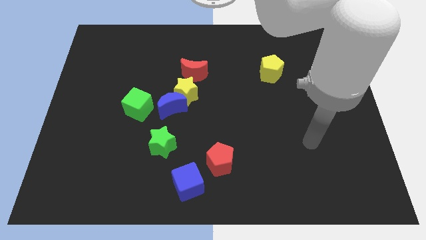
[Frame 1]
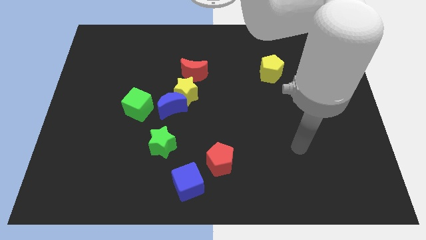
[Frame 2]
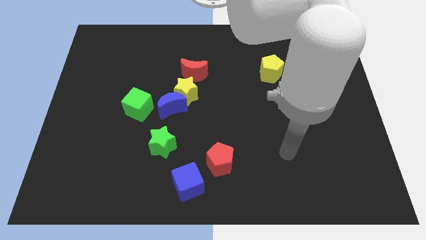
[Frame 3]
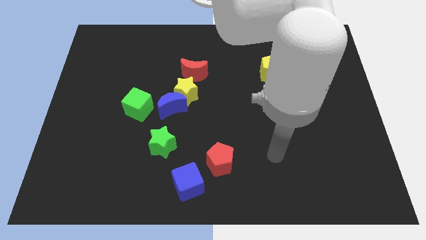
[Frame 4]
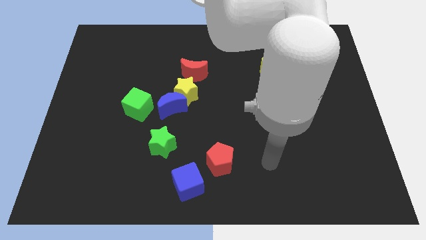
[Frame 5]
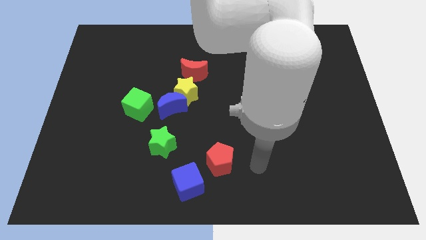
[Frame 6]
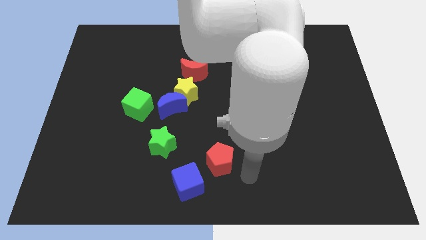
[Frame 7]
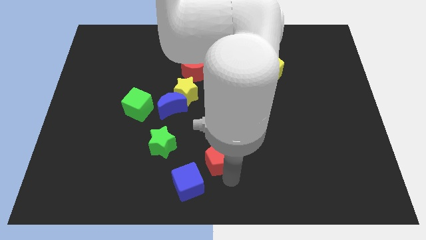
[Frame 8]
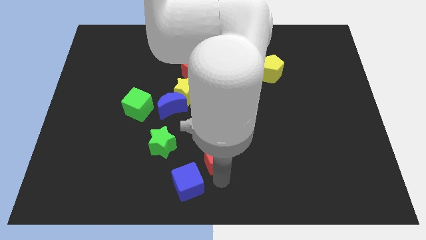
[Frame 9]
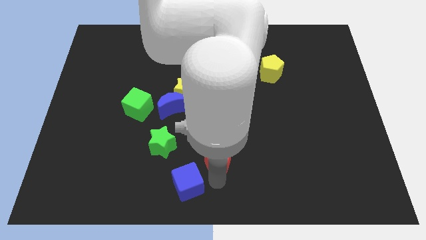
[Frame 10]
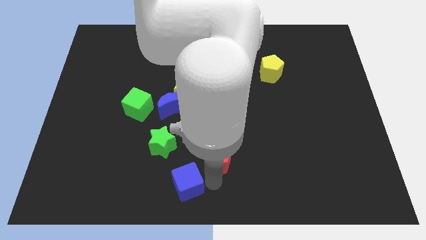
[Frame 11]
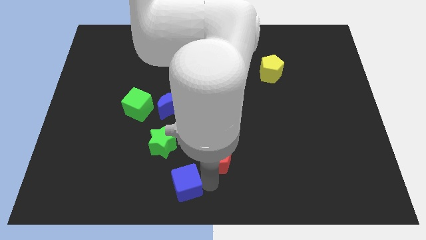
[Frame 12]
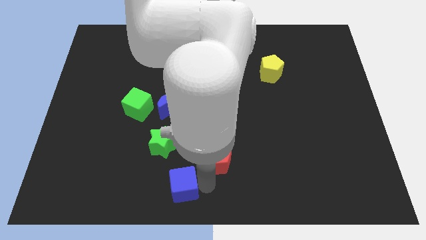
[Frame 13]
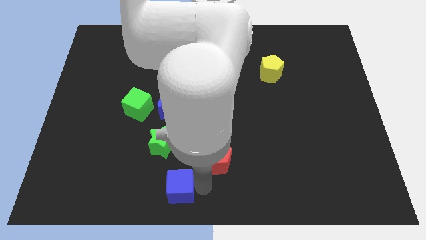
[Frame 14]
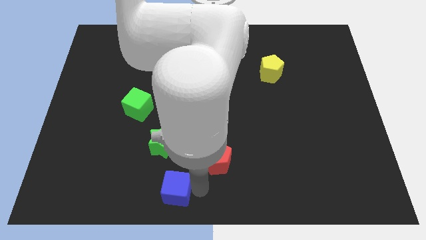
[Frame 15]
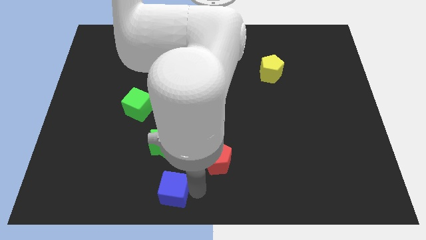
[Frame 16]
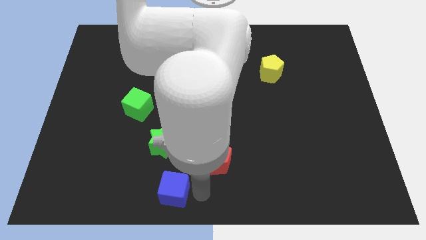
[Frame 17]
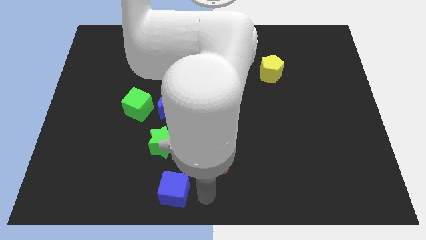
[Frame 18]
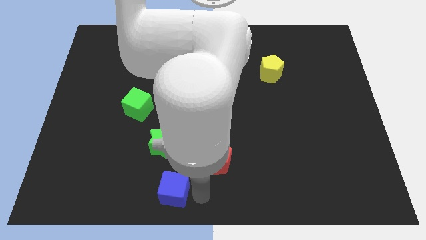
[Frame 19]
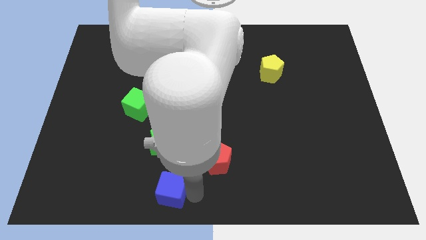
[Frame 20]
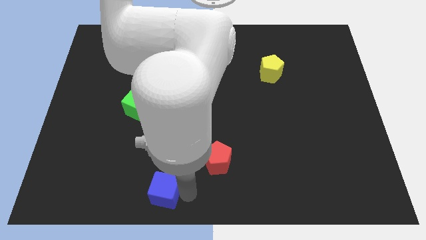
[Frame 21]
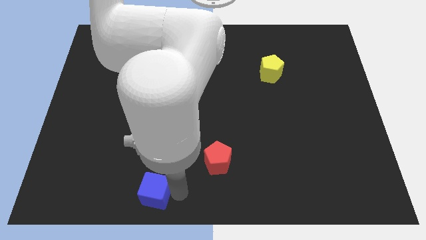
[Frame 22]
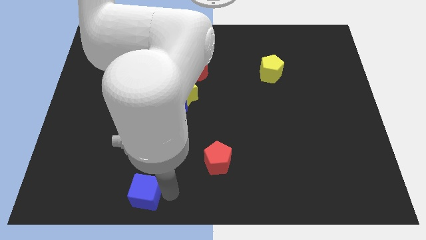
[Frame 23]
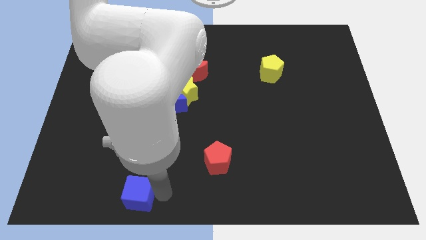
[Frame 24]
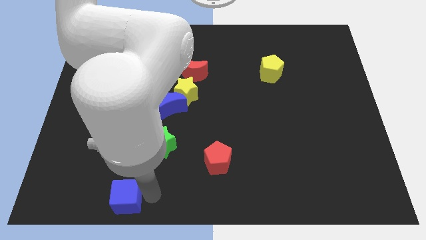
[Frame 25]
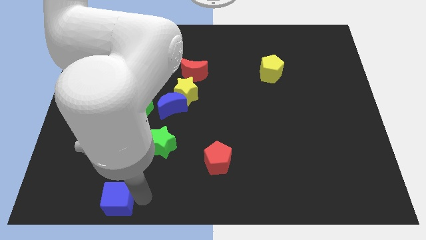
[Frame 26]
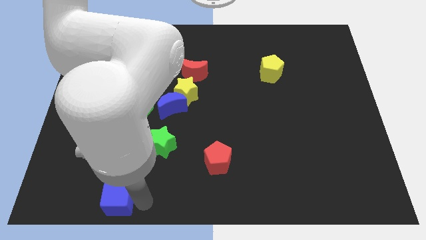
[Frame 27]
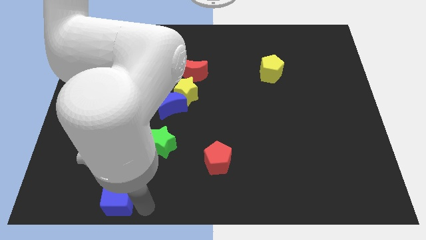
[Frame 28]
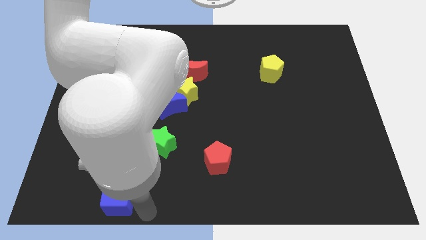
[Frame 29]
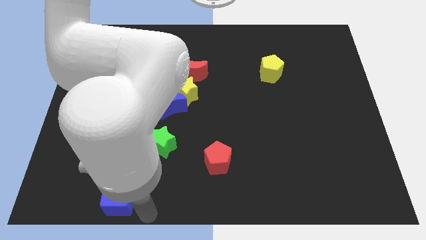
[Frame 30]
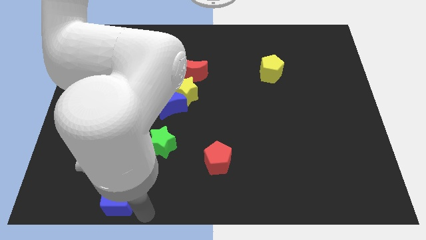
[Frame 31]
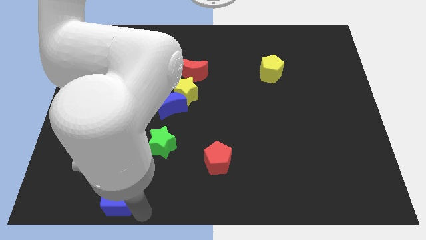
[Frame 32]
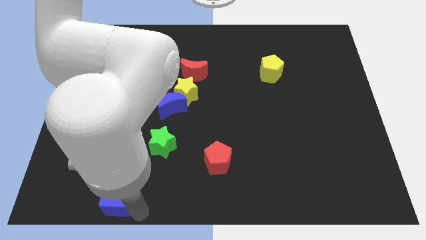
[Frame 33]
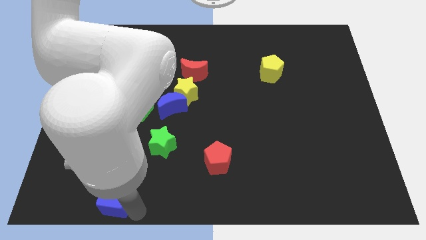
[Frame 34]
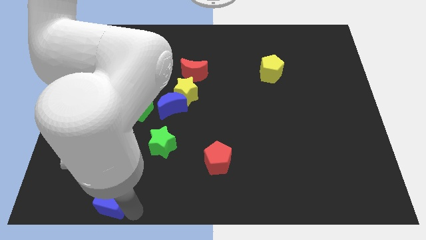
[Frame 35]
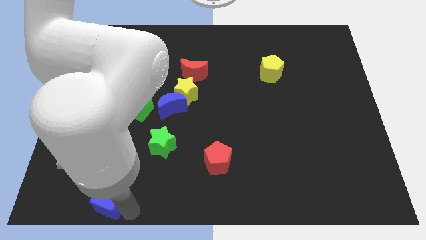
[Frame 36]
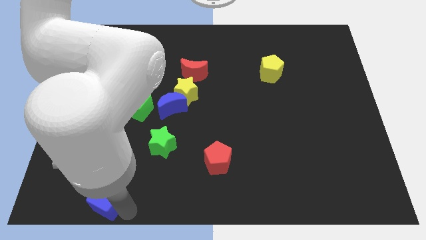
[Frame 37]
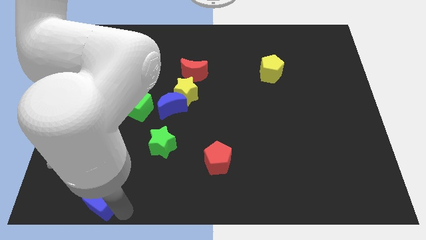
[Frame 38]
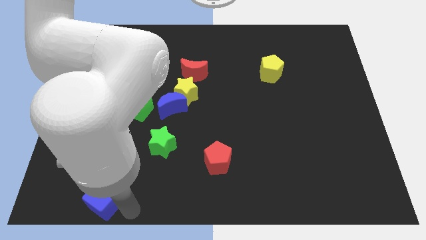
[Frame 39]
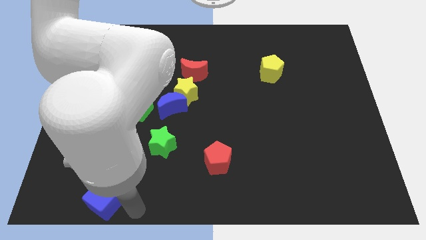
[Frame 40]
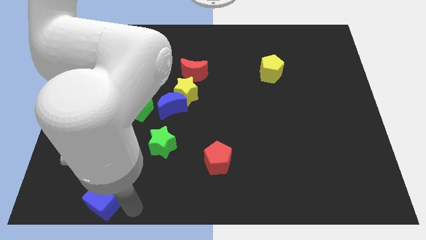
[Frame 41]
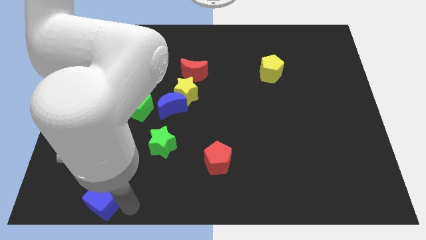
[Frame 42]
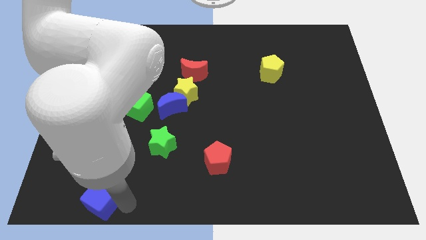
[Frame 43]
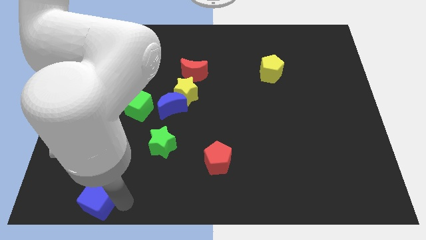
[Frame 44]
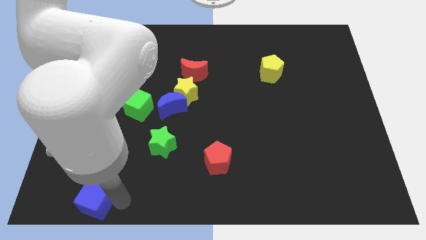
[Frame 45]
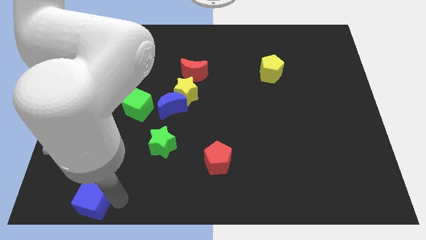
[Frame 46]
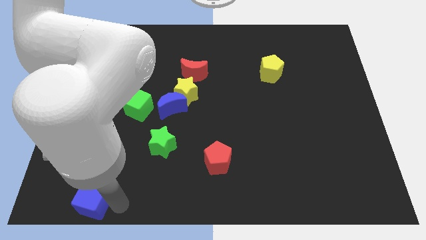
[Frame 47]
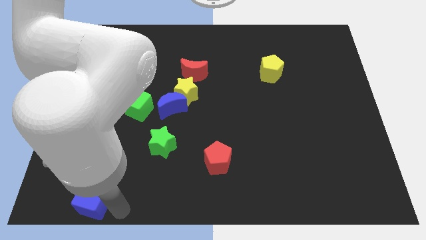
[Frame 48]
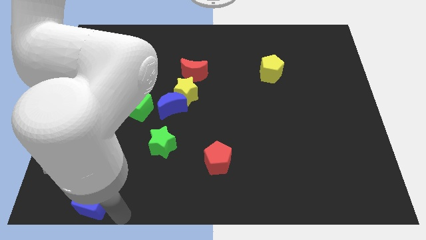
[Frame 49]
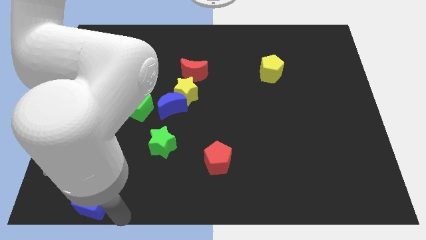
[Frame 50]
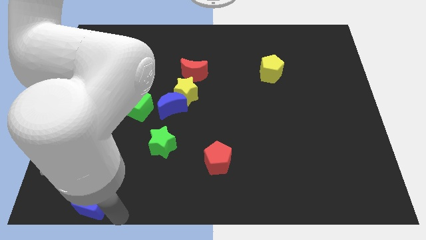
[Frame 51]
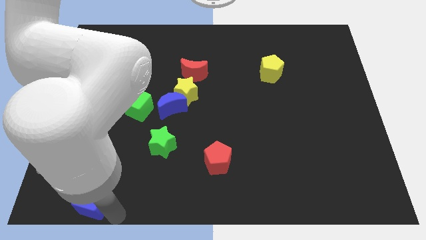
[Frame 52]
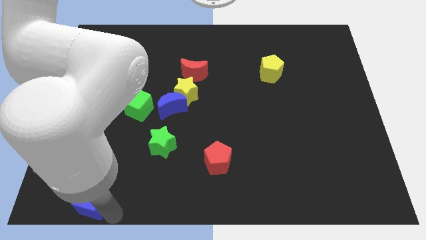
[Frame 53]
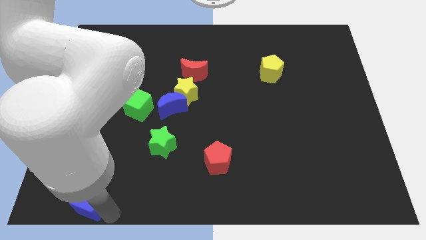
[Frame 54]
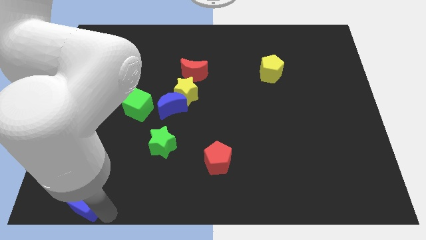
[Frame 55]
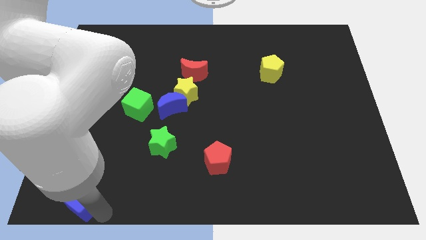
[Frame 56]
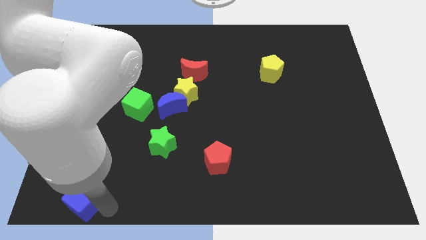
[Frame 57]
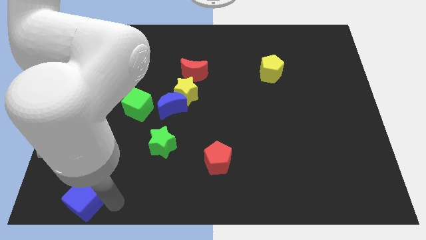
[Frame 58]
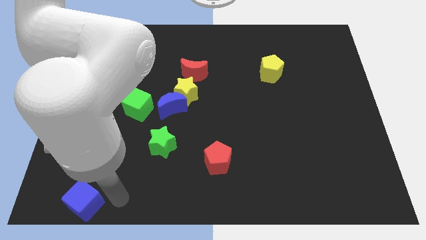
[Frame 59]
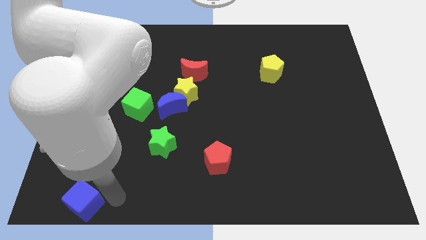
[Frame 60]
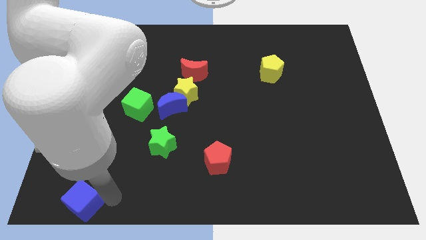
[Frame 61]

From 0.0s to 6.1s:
push the blue cube to the bottom left corner

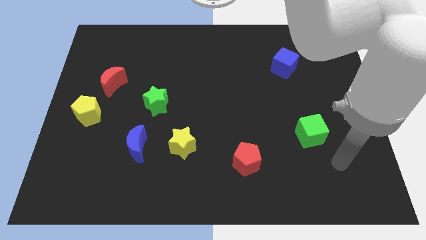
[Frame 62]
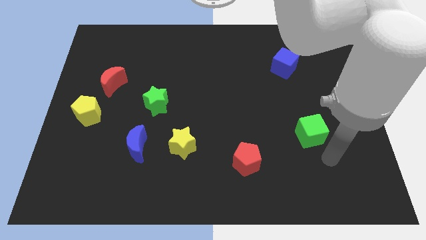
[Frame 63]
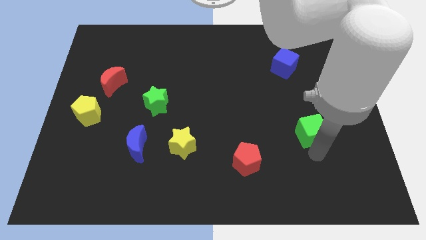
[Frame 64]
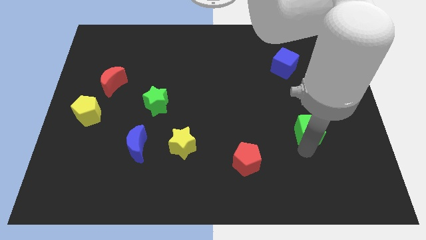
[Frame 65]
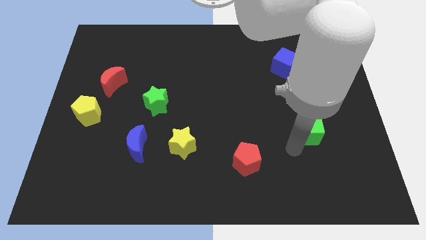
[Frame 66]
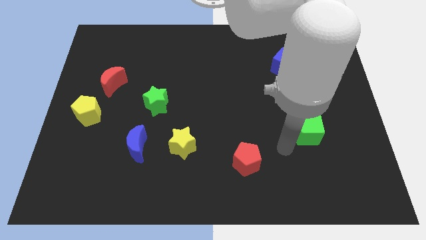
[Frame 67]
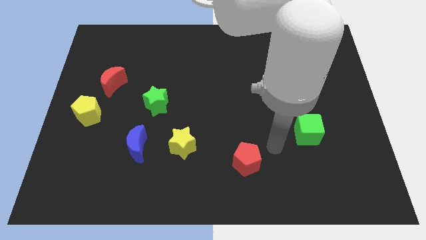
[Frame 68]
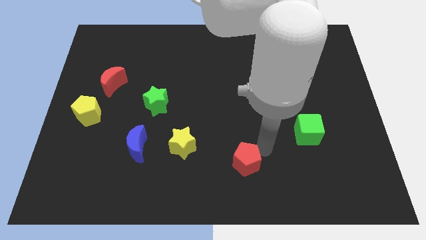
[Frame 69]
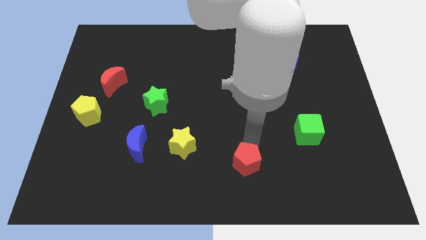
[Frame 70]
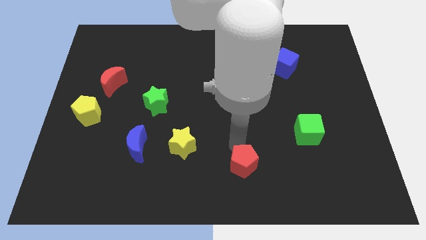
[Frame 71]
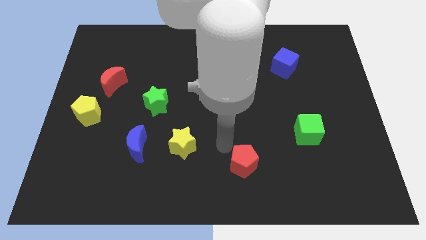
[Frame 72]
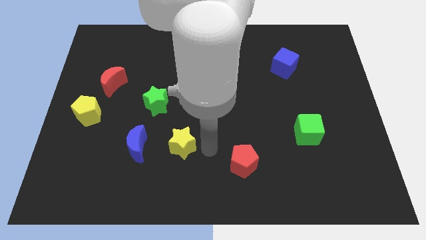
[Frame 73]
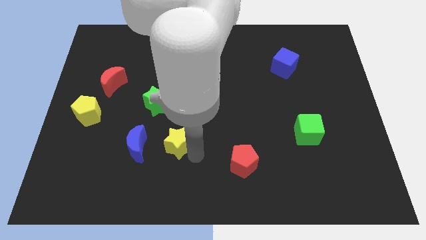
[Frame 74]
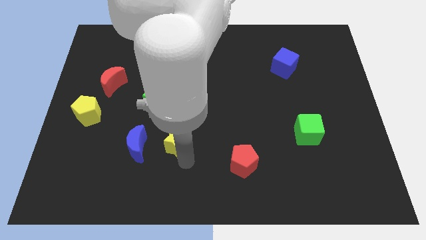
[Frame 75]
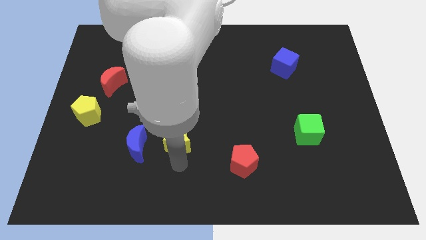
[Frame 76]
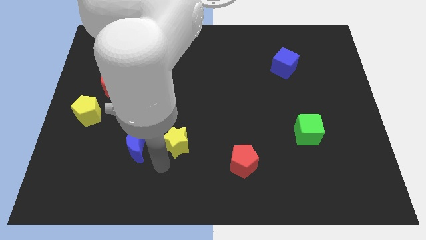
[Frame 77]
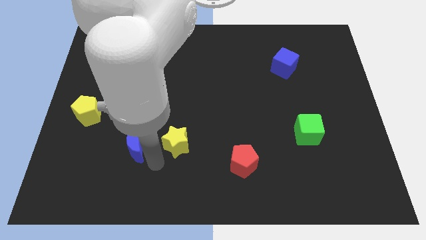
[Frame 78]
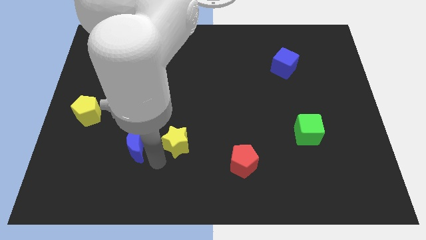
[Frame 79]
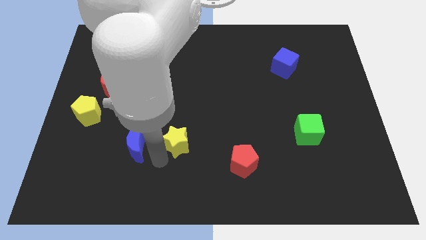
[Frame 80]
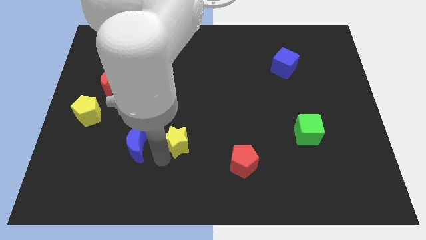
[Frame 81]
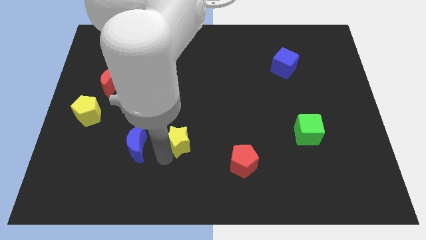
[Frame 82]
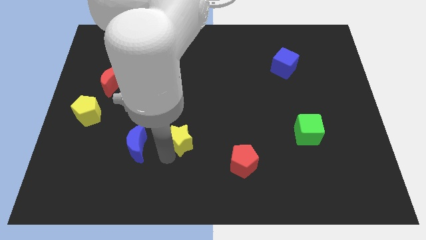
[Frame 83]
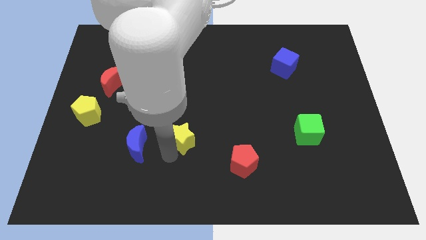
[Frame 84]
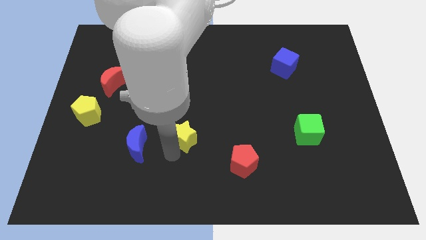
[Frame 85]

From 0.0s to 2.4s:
move the yellow star to the center
